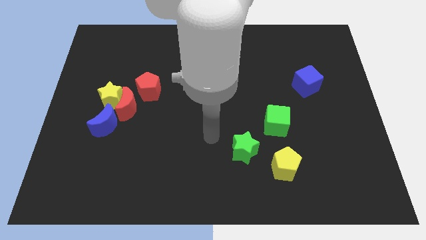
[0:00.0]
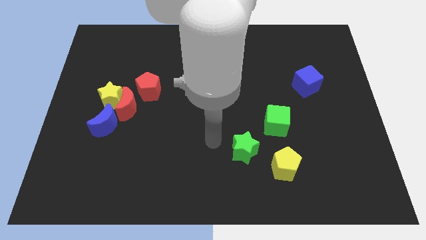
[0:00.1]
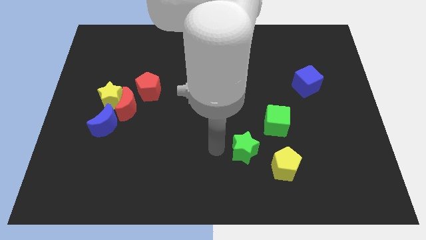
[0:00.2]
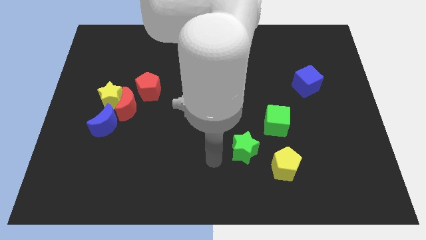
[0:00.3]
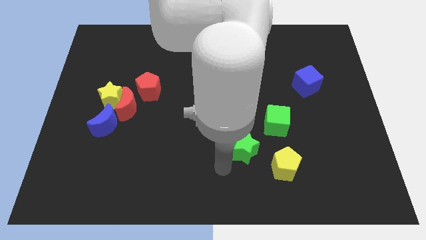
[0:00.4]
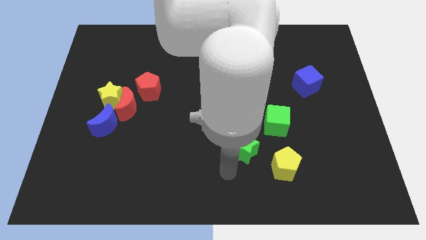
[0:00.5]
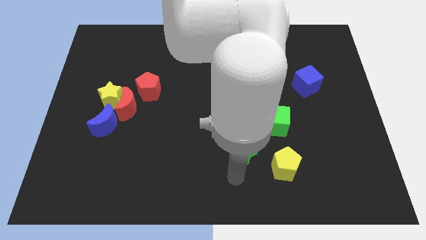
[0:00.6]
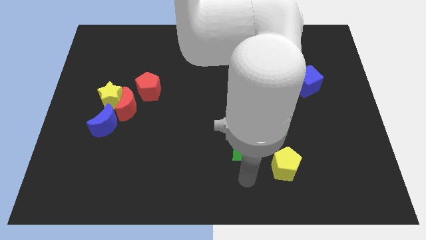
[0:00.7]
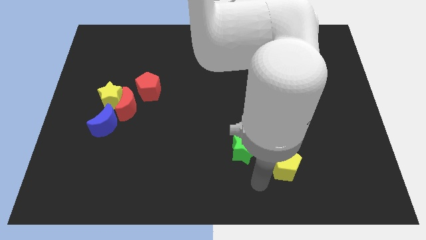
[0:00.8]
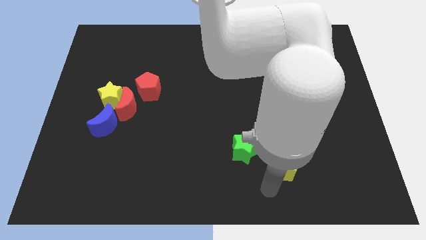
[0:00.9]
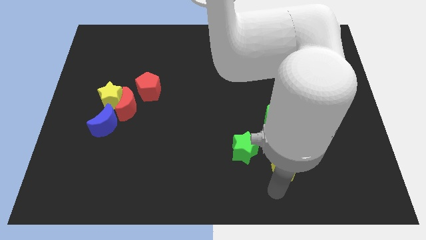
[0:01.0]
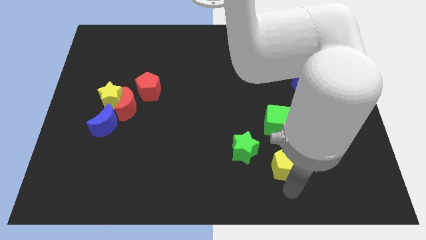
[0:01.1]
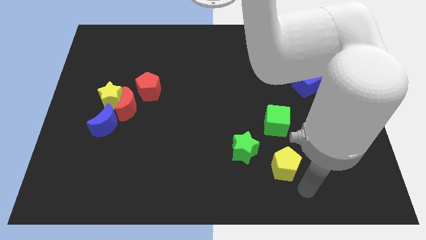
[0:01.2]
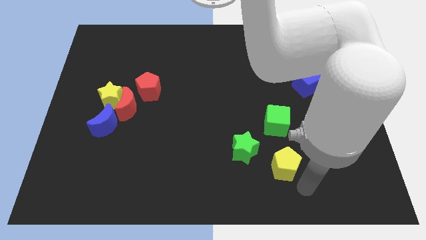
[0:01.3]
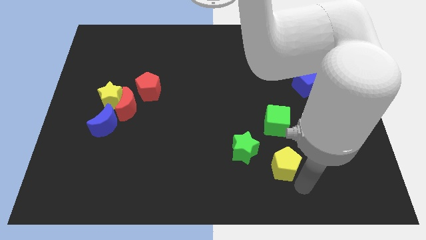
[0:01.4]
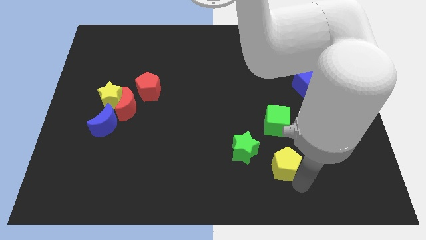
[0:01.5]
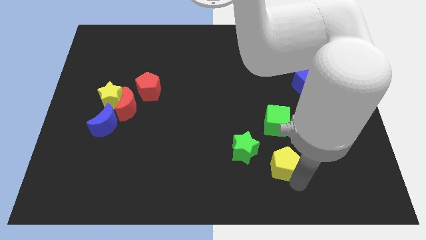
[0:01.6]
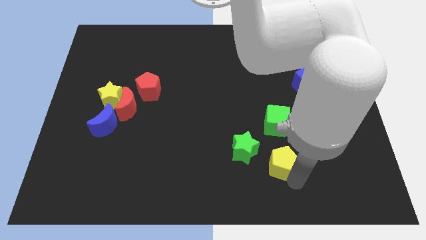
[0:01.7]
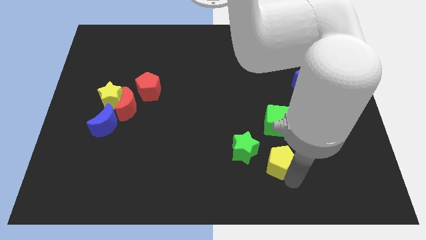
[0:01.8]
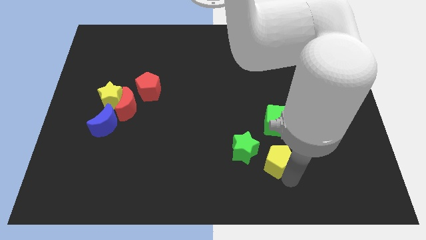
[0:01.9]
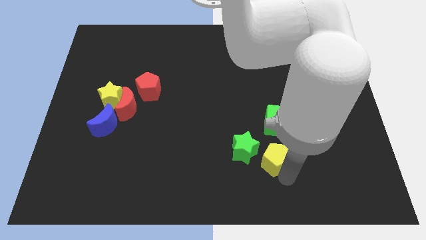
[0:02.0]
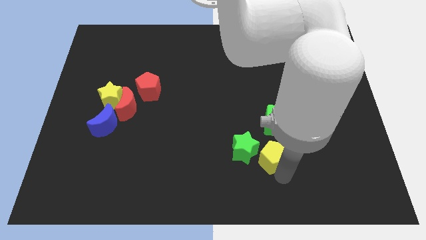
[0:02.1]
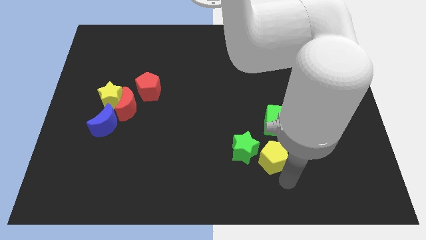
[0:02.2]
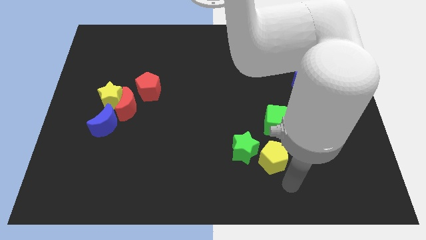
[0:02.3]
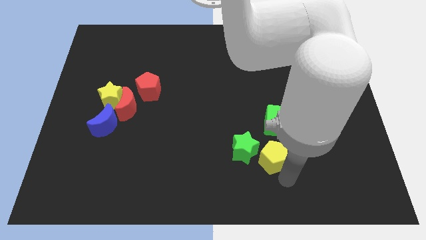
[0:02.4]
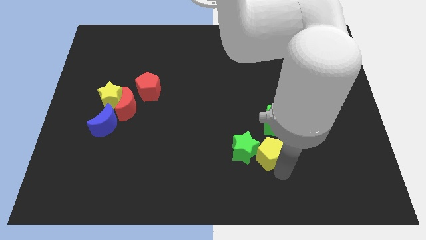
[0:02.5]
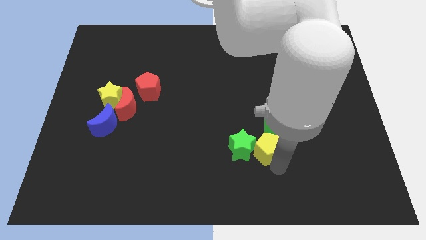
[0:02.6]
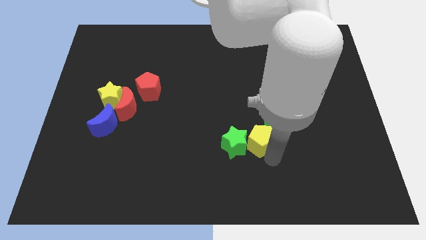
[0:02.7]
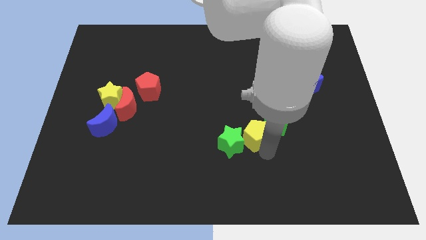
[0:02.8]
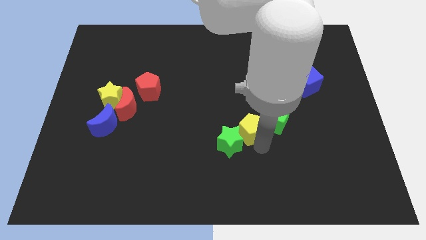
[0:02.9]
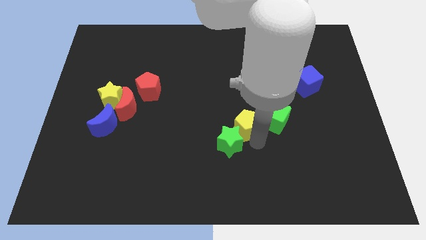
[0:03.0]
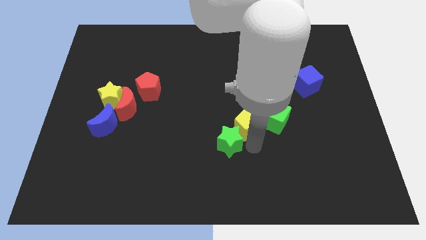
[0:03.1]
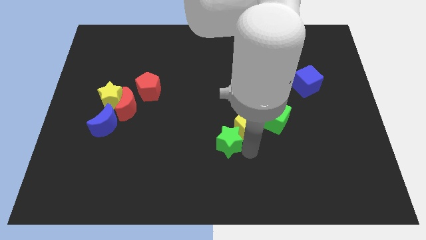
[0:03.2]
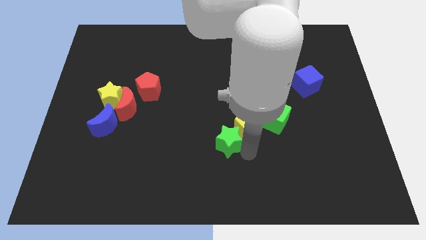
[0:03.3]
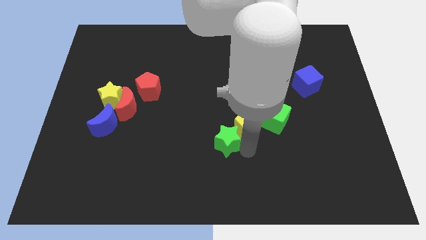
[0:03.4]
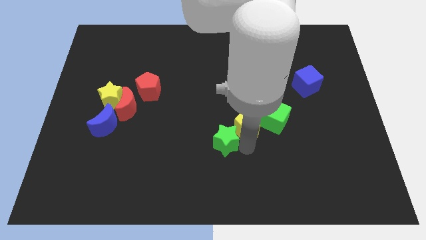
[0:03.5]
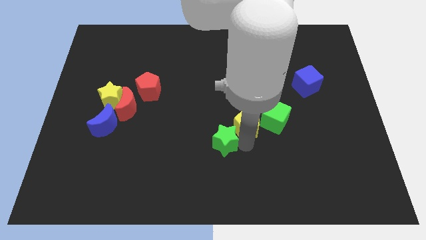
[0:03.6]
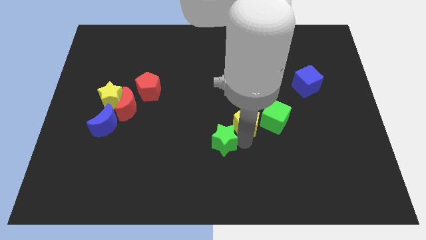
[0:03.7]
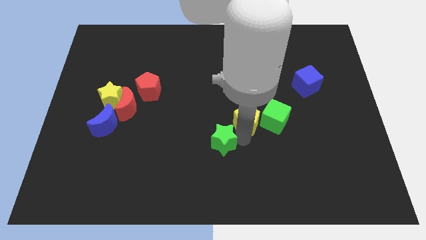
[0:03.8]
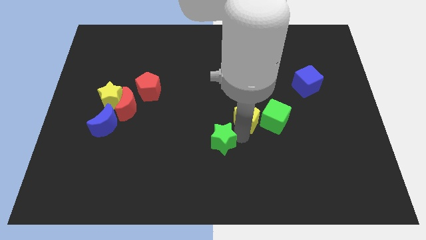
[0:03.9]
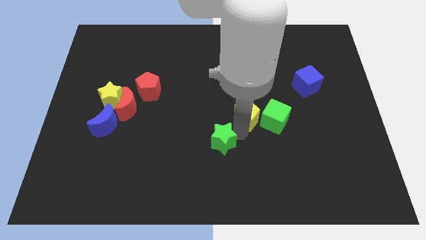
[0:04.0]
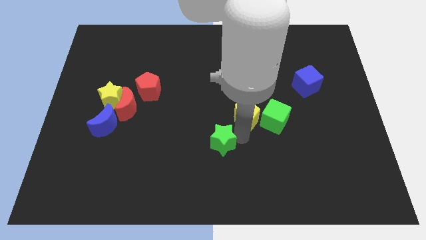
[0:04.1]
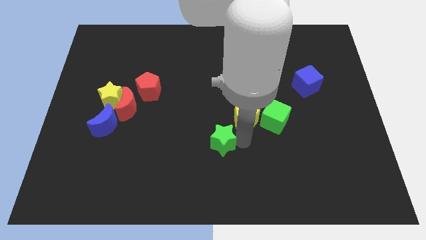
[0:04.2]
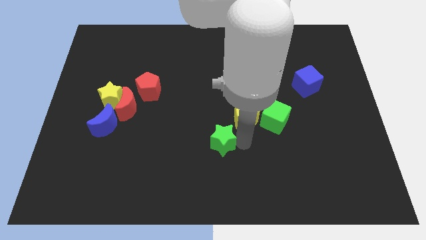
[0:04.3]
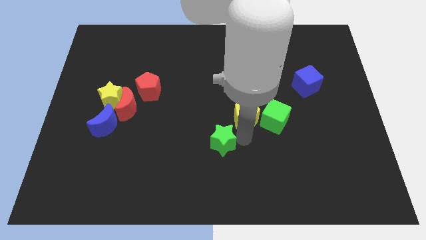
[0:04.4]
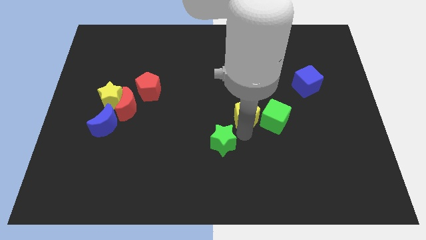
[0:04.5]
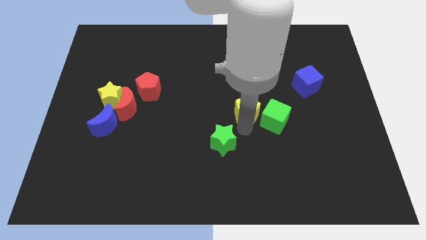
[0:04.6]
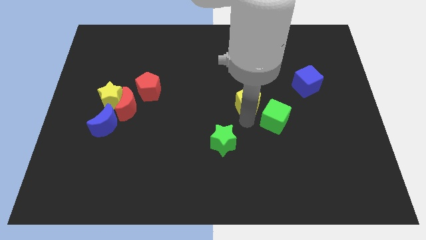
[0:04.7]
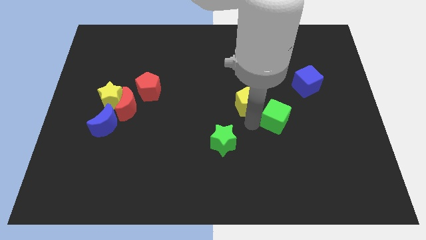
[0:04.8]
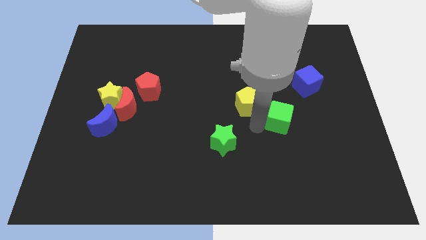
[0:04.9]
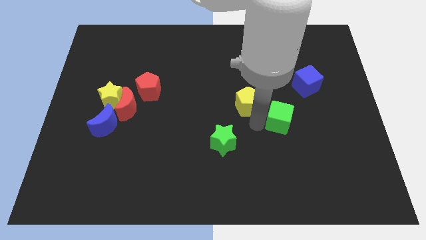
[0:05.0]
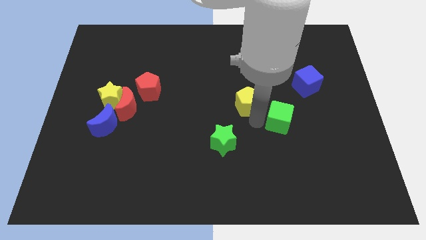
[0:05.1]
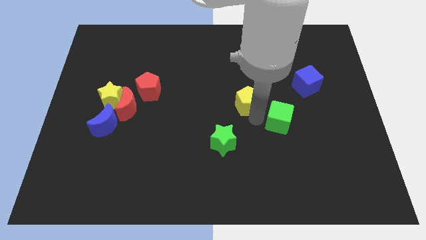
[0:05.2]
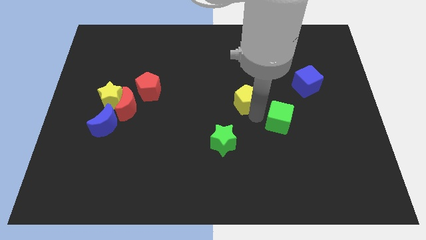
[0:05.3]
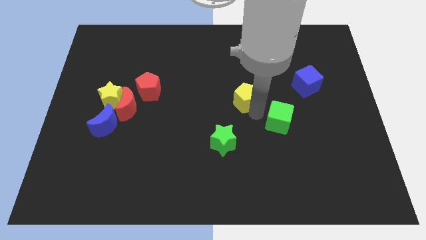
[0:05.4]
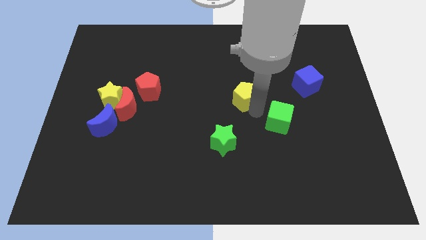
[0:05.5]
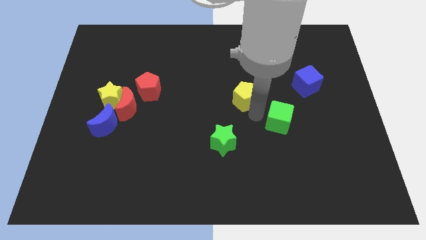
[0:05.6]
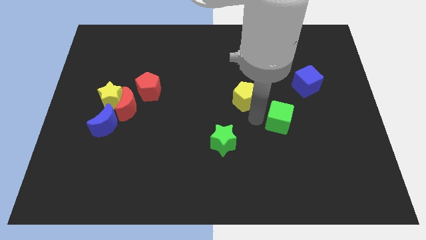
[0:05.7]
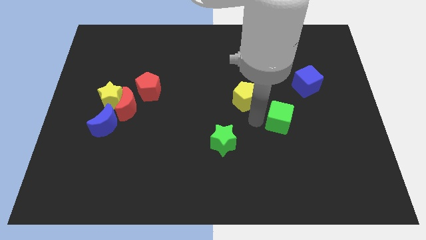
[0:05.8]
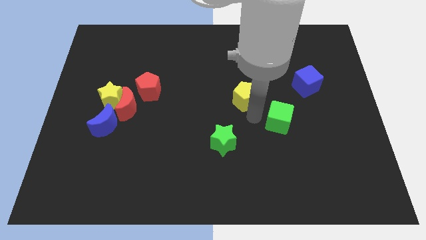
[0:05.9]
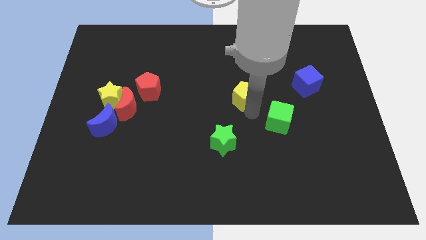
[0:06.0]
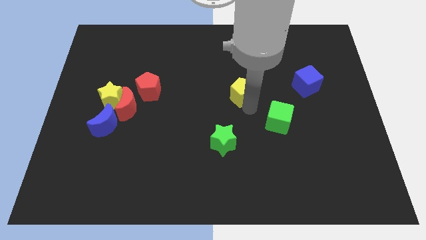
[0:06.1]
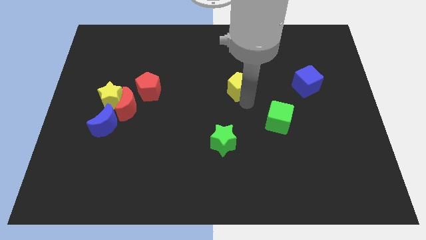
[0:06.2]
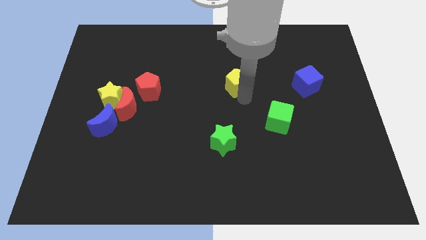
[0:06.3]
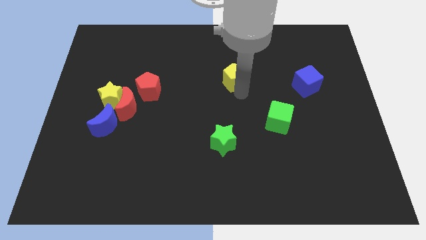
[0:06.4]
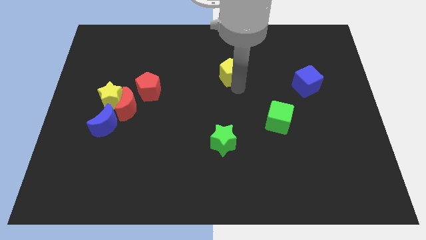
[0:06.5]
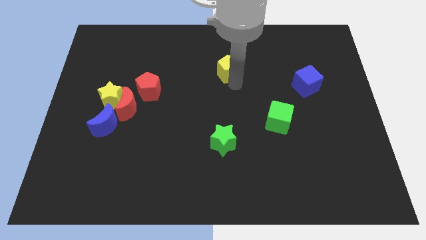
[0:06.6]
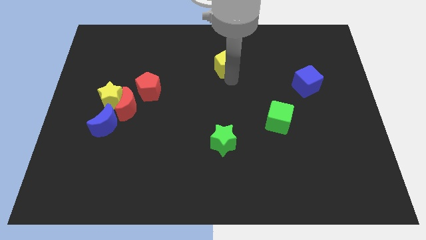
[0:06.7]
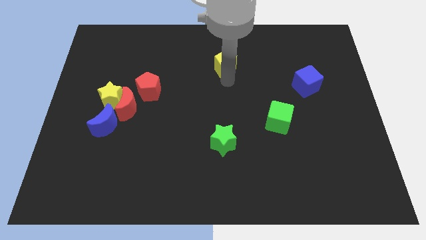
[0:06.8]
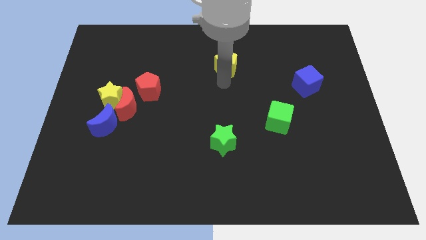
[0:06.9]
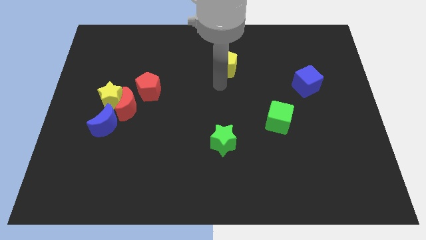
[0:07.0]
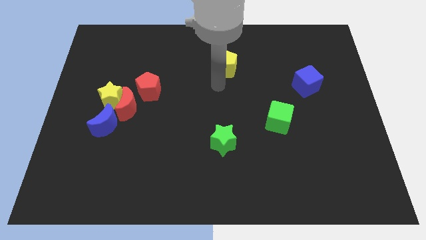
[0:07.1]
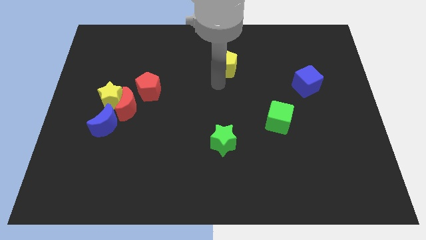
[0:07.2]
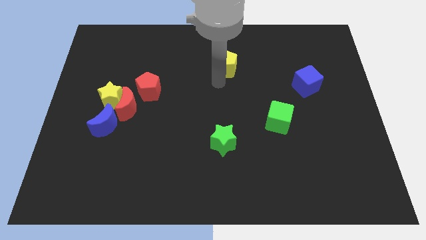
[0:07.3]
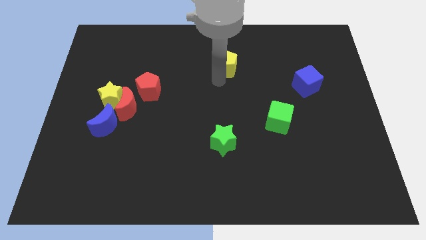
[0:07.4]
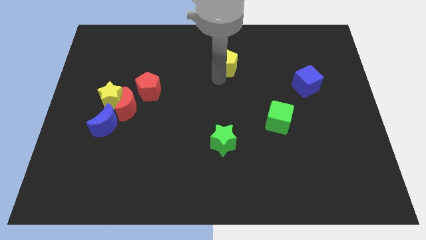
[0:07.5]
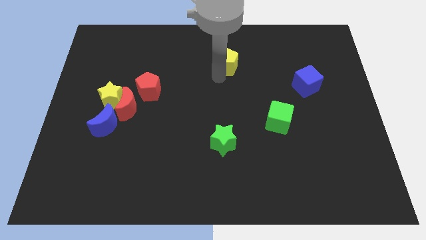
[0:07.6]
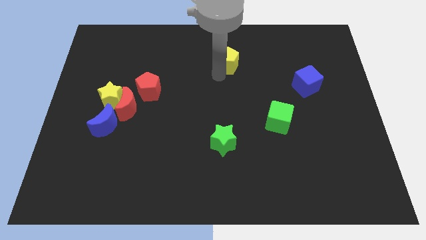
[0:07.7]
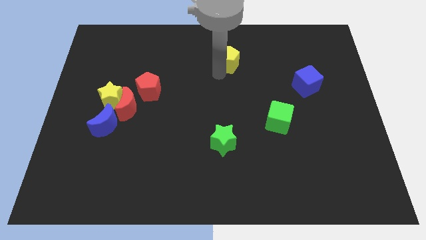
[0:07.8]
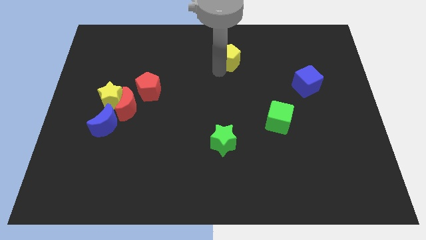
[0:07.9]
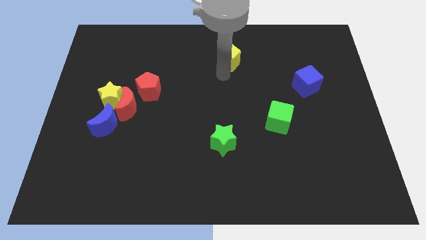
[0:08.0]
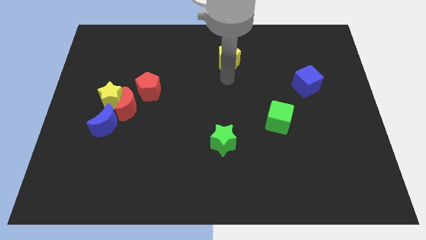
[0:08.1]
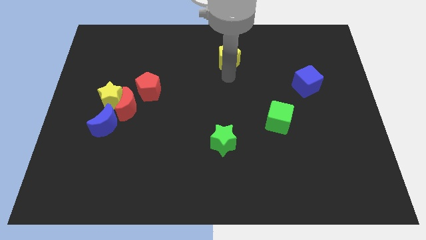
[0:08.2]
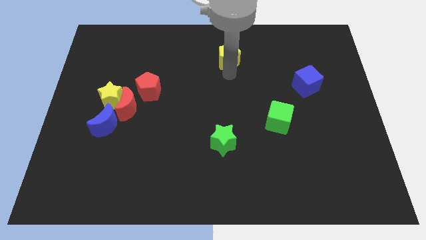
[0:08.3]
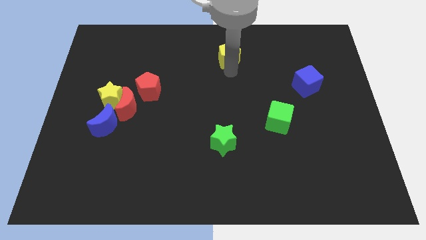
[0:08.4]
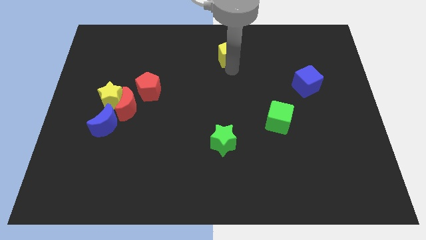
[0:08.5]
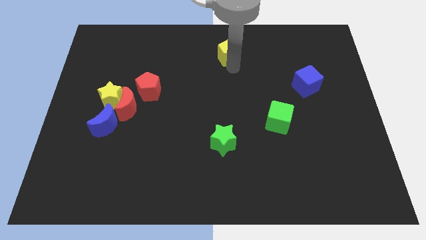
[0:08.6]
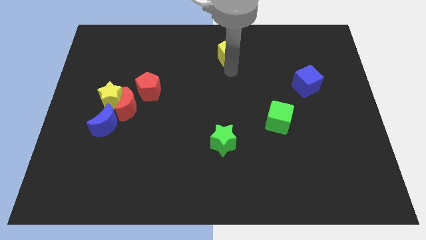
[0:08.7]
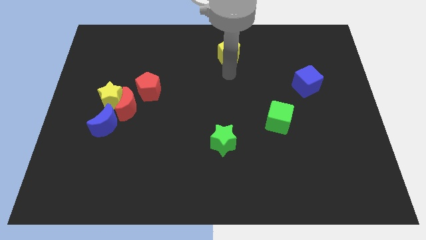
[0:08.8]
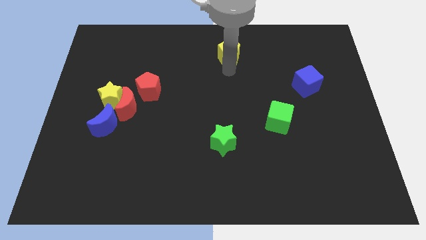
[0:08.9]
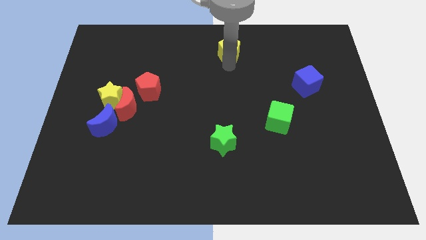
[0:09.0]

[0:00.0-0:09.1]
push the yellow pentagon to the towards your base
